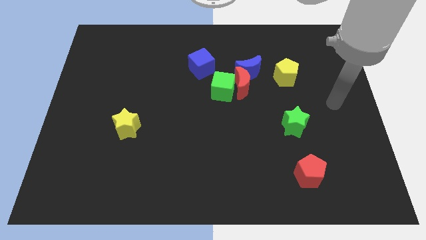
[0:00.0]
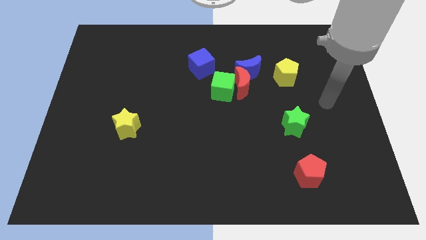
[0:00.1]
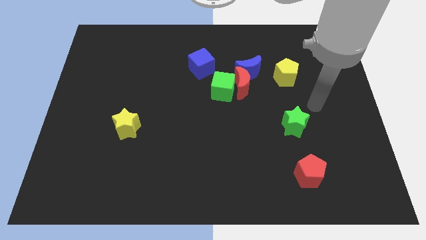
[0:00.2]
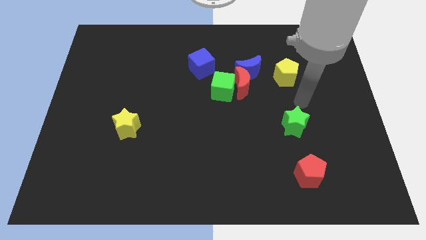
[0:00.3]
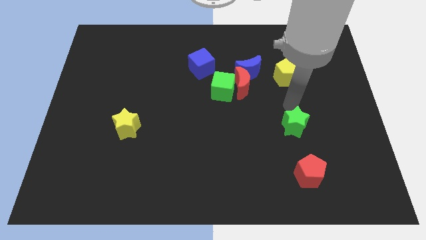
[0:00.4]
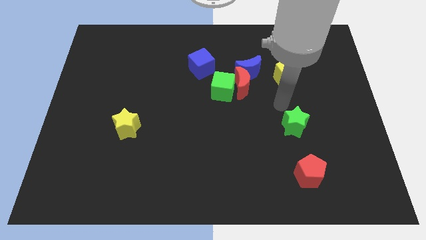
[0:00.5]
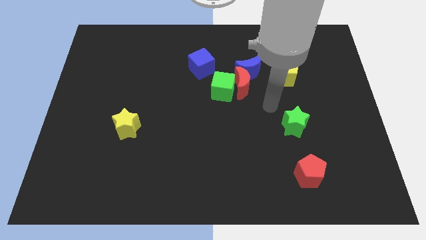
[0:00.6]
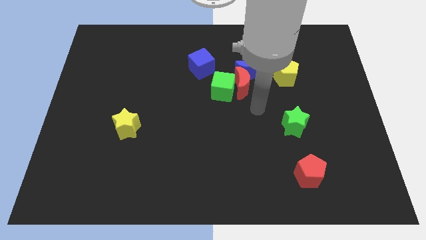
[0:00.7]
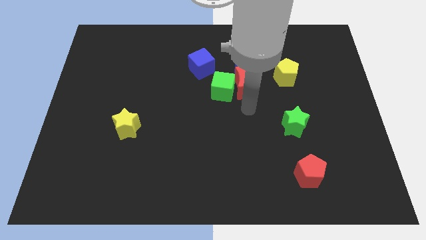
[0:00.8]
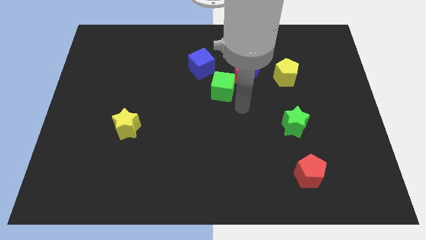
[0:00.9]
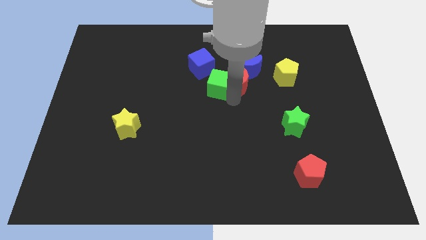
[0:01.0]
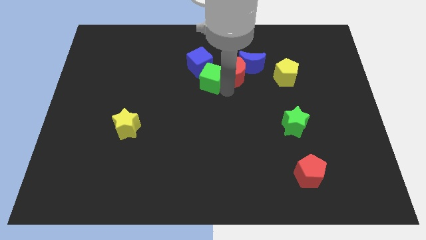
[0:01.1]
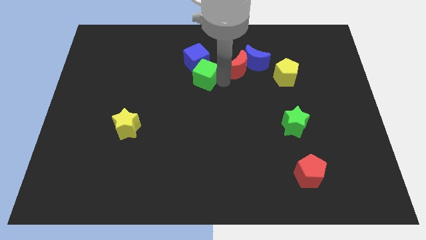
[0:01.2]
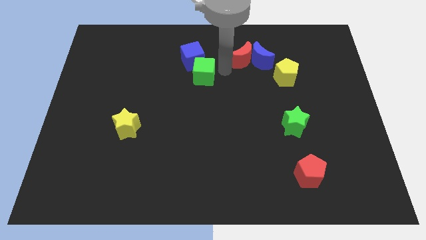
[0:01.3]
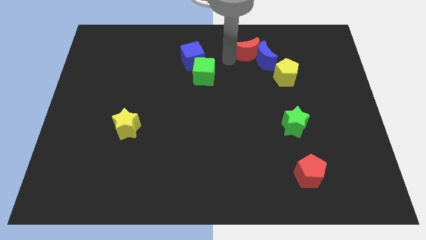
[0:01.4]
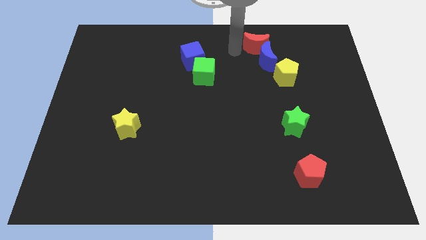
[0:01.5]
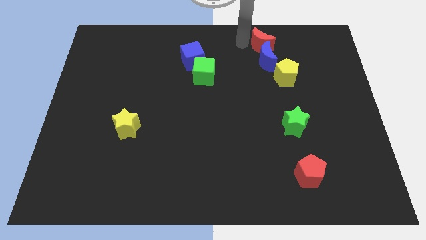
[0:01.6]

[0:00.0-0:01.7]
separate the red moon from the green cube and blue moon

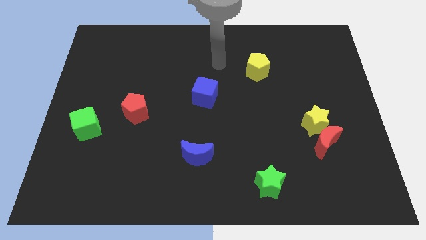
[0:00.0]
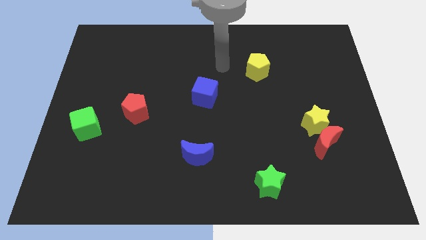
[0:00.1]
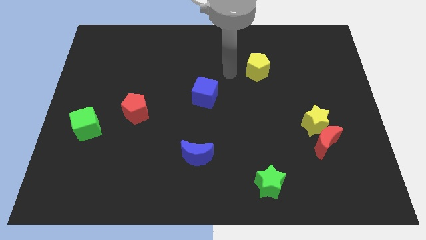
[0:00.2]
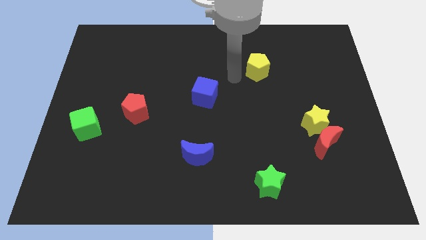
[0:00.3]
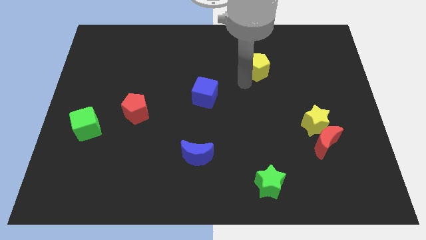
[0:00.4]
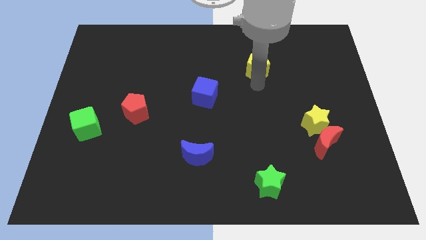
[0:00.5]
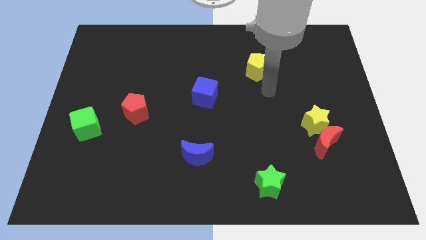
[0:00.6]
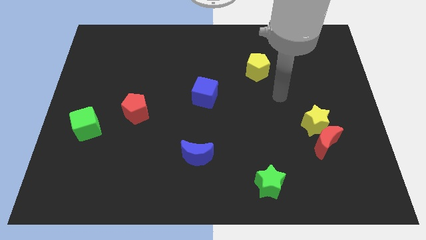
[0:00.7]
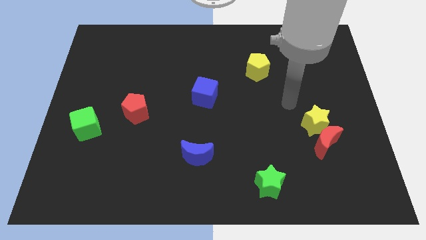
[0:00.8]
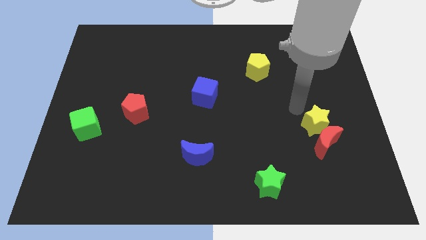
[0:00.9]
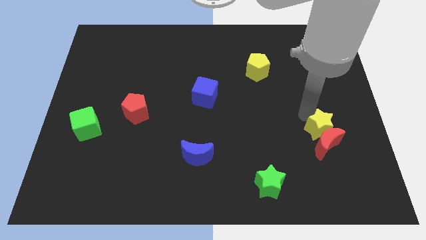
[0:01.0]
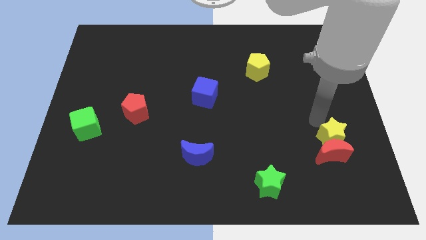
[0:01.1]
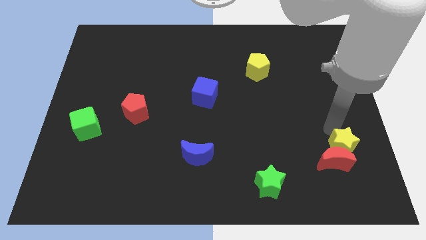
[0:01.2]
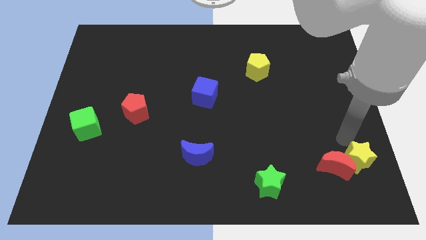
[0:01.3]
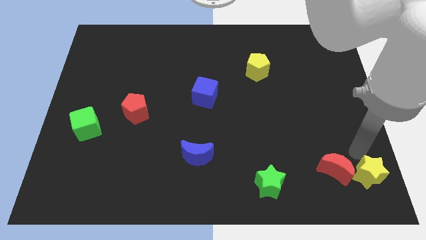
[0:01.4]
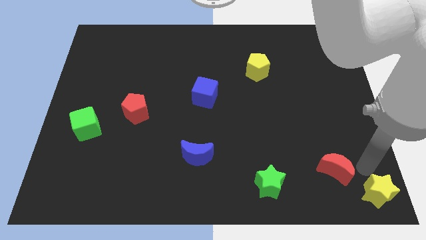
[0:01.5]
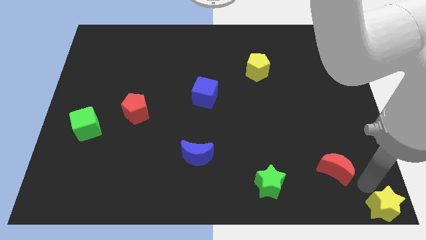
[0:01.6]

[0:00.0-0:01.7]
move the red moon away from the yellow star

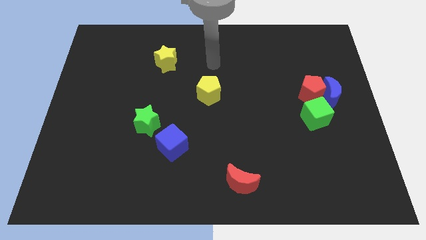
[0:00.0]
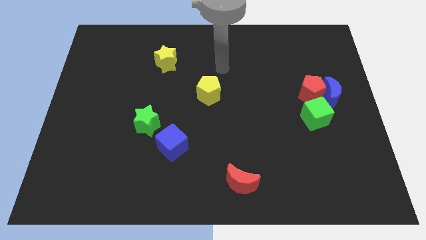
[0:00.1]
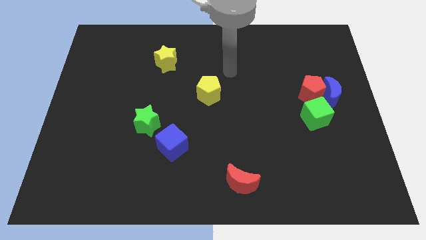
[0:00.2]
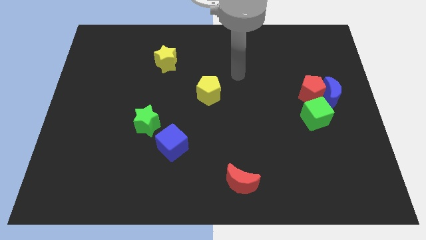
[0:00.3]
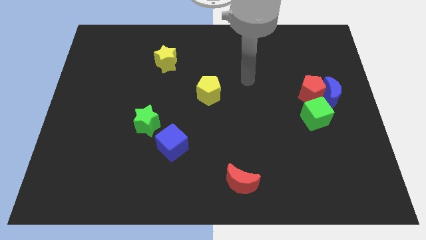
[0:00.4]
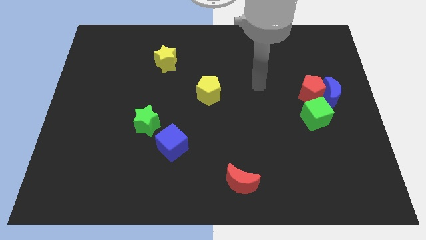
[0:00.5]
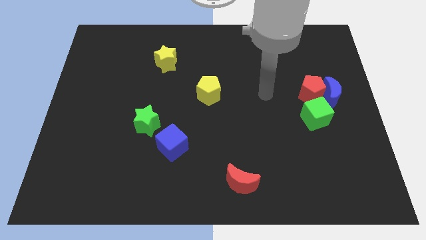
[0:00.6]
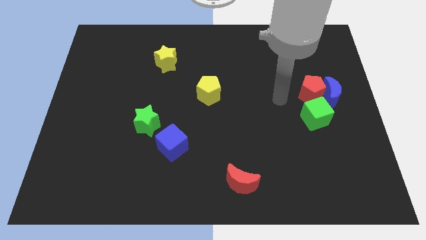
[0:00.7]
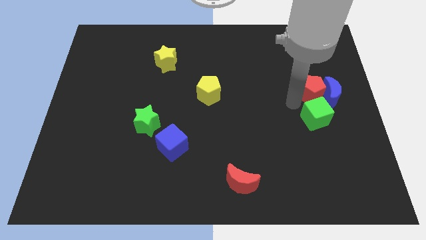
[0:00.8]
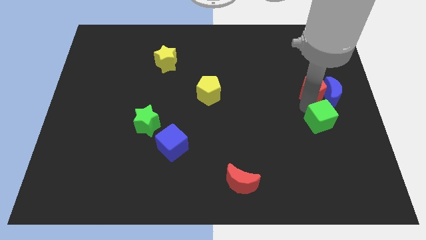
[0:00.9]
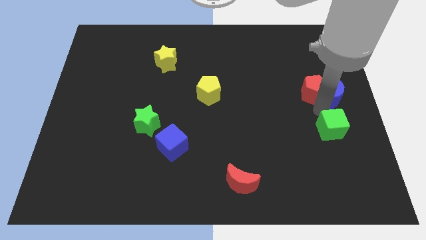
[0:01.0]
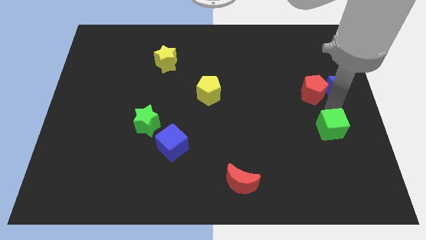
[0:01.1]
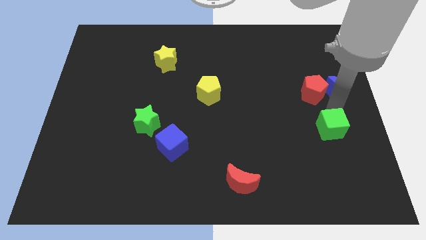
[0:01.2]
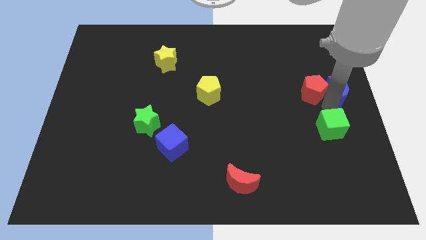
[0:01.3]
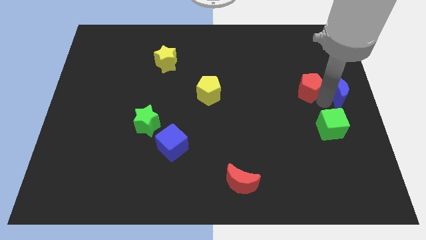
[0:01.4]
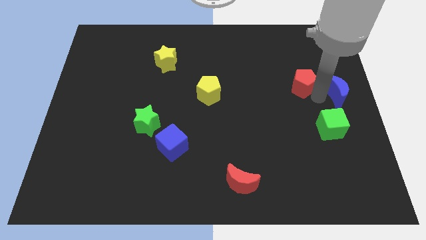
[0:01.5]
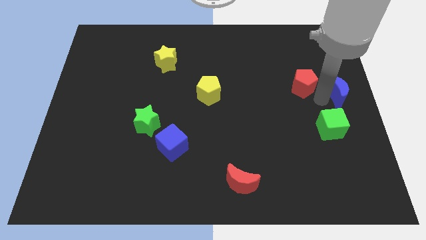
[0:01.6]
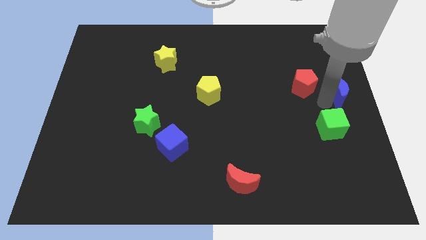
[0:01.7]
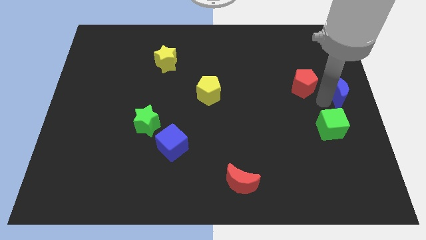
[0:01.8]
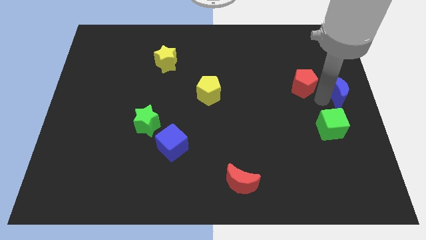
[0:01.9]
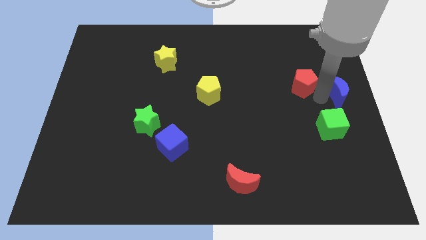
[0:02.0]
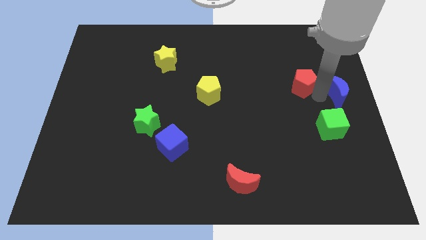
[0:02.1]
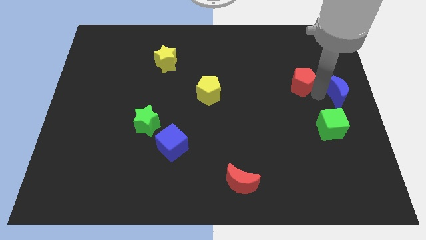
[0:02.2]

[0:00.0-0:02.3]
separate the red pentagon from the blue moon and green cube

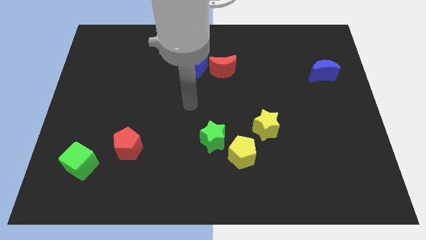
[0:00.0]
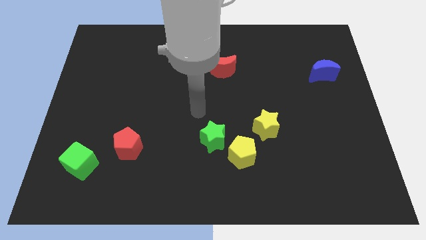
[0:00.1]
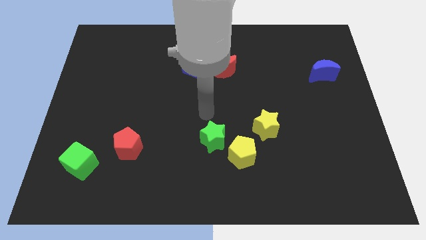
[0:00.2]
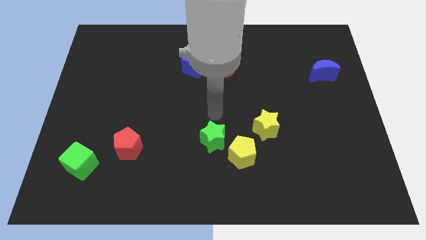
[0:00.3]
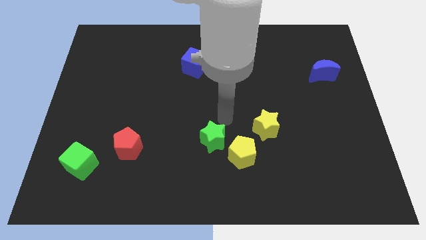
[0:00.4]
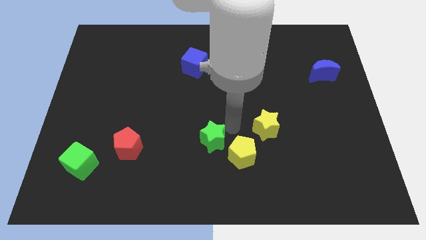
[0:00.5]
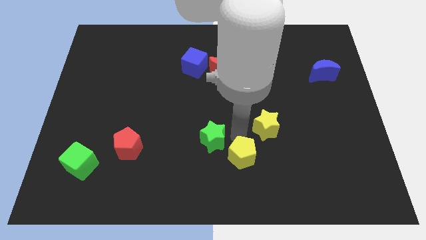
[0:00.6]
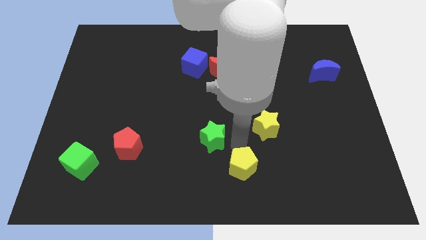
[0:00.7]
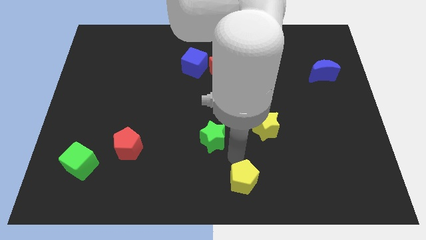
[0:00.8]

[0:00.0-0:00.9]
pull the green star apart from the yellow pentagon

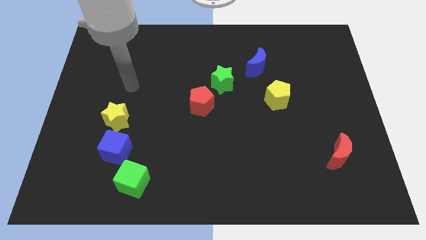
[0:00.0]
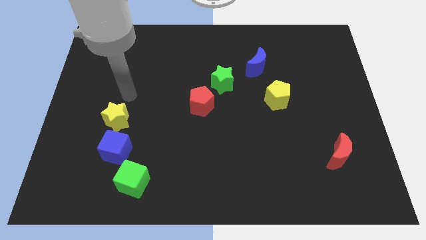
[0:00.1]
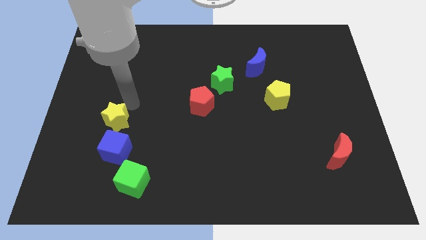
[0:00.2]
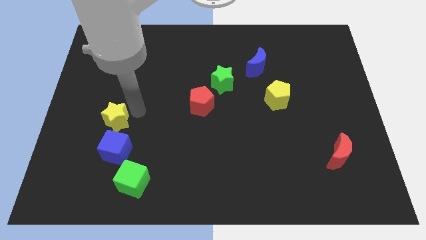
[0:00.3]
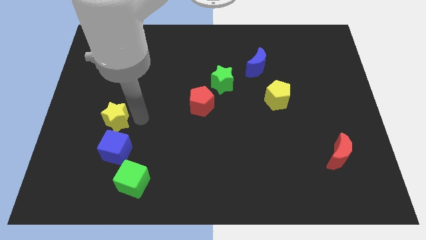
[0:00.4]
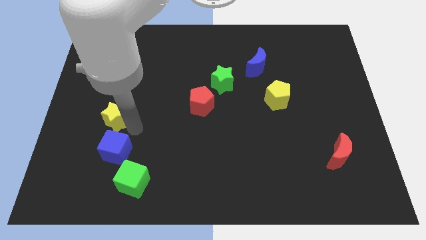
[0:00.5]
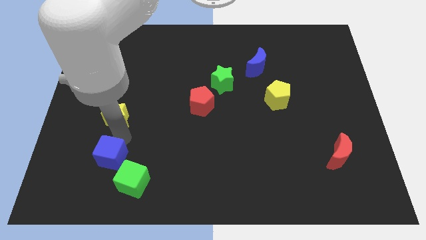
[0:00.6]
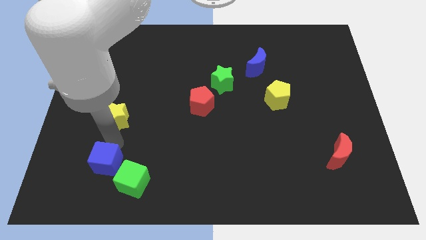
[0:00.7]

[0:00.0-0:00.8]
separate the yellow star from the blue cube

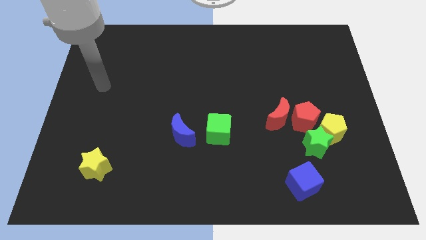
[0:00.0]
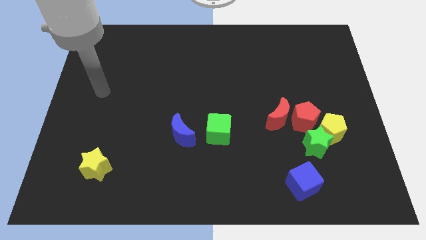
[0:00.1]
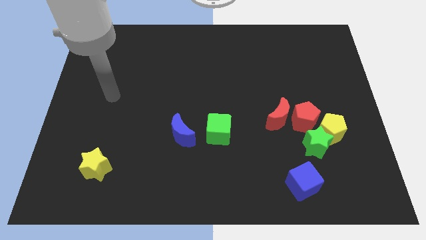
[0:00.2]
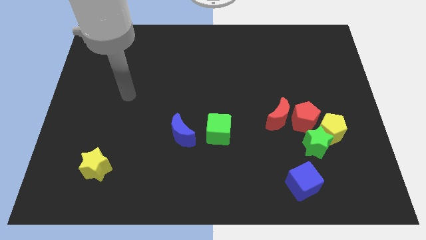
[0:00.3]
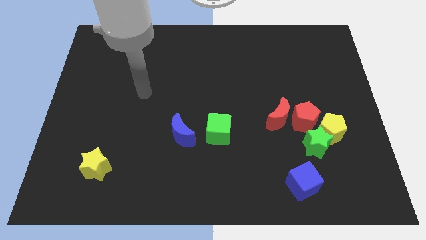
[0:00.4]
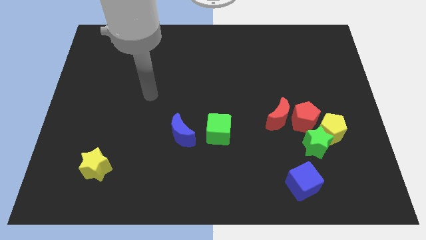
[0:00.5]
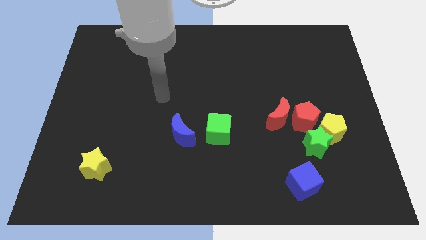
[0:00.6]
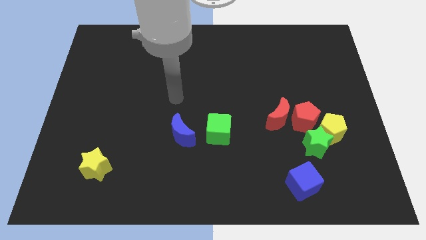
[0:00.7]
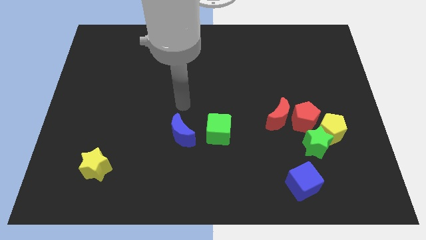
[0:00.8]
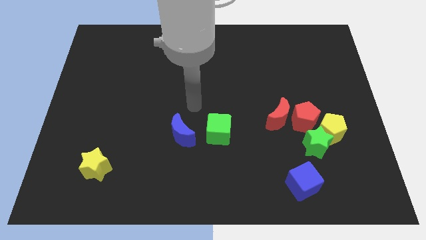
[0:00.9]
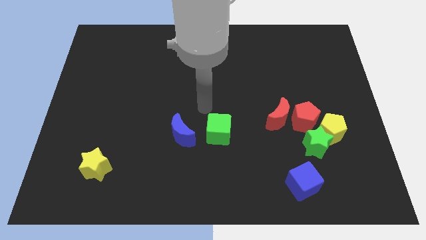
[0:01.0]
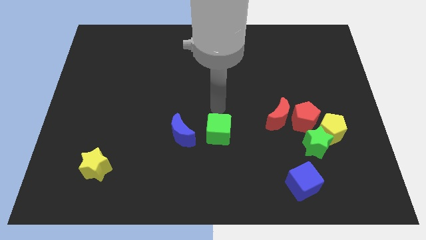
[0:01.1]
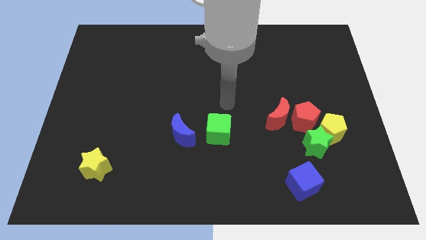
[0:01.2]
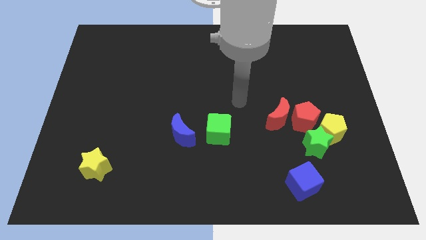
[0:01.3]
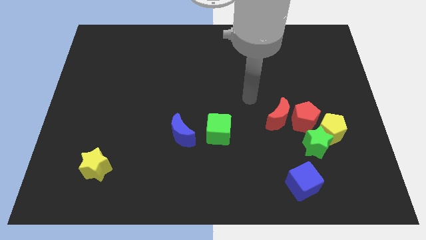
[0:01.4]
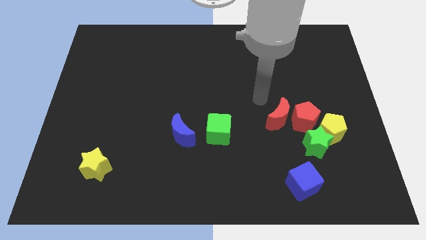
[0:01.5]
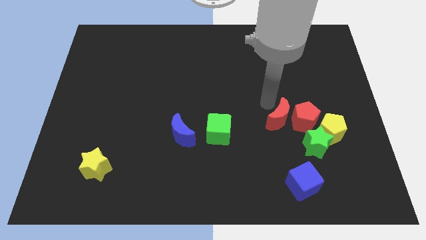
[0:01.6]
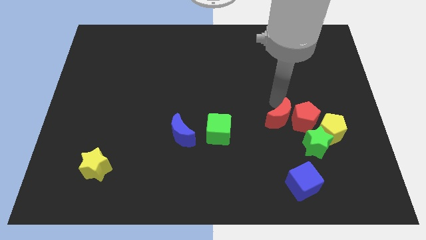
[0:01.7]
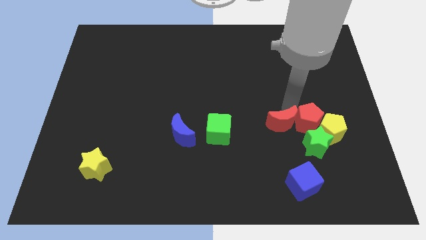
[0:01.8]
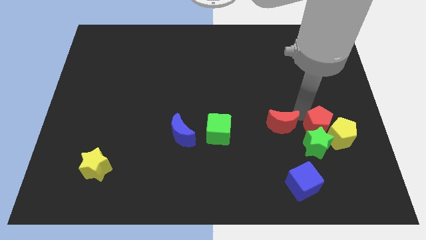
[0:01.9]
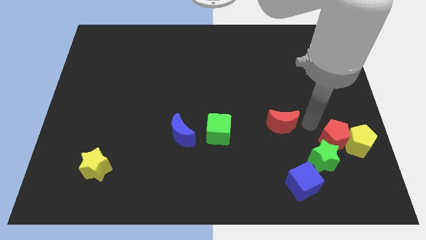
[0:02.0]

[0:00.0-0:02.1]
separate the red moon from the red pentagon
